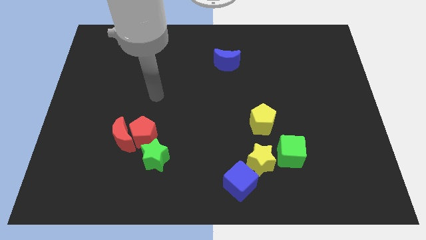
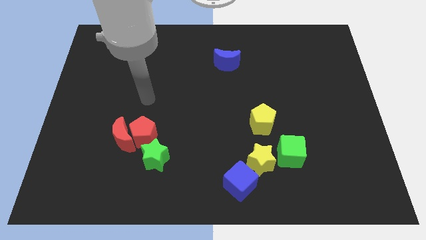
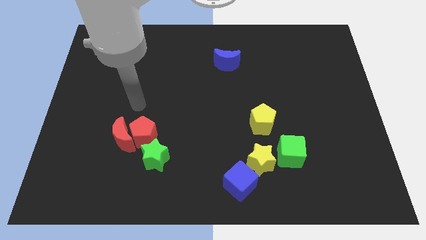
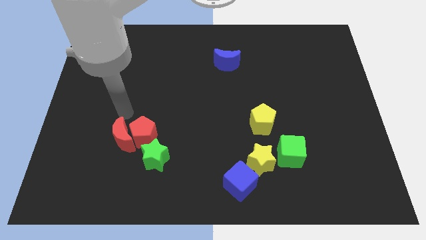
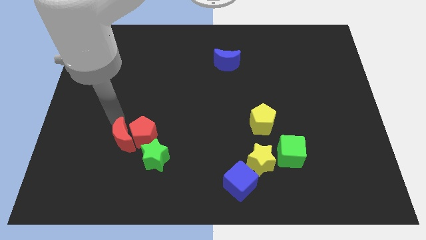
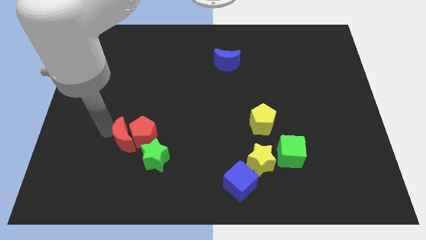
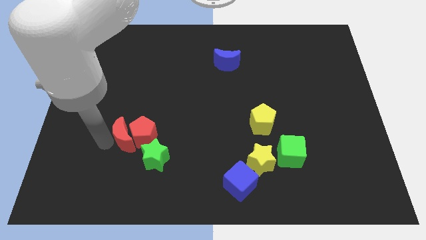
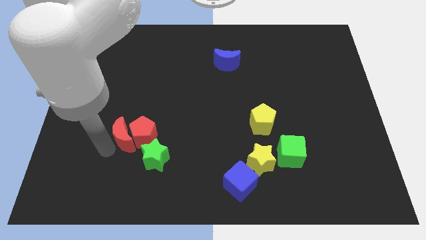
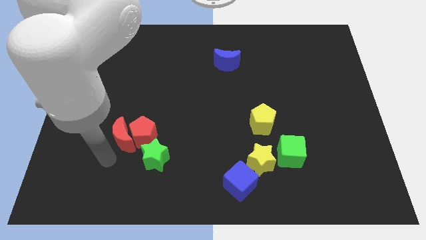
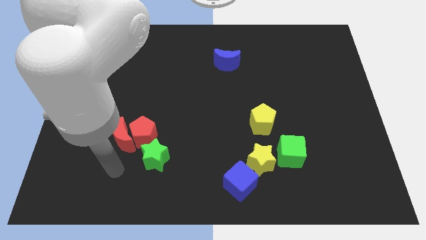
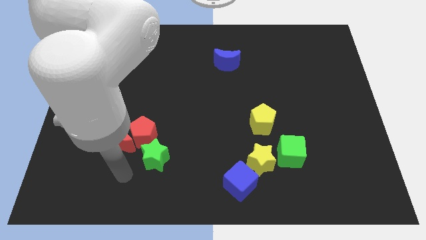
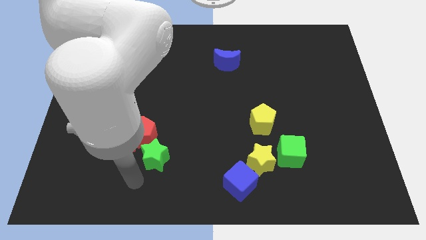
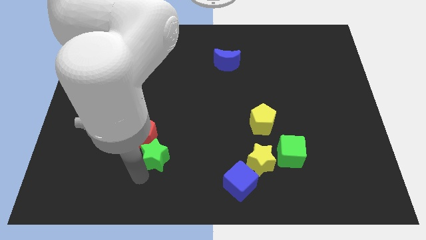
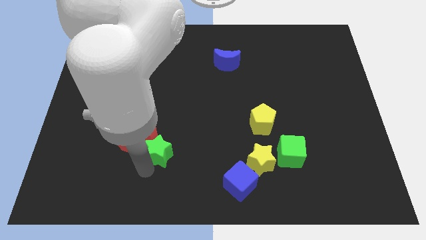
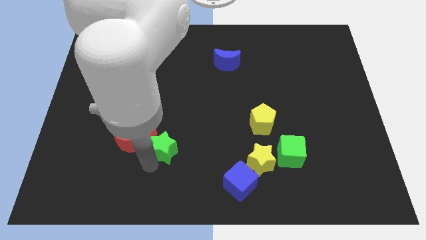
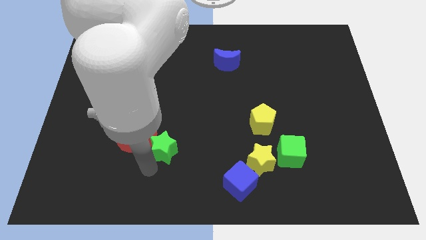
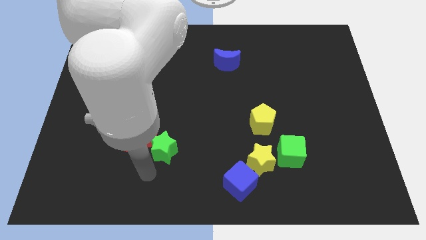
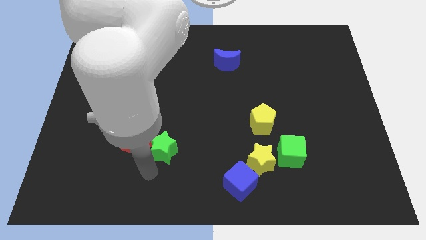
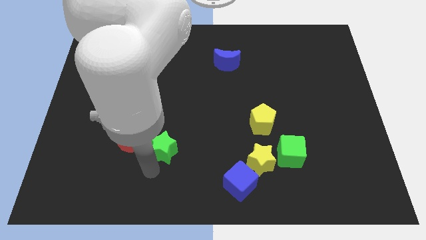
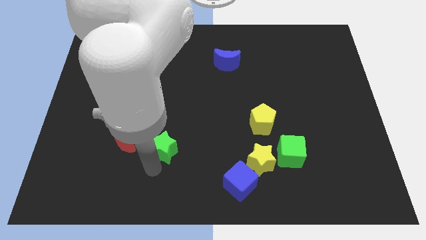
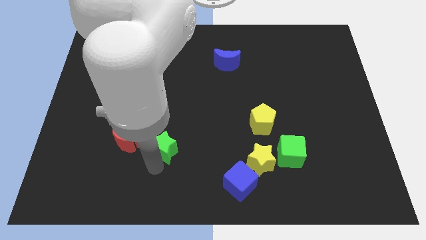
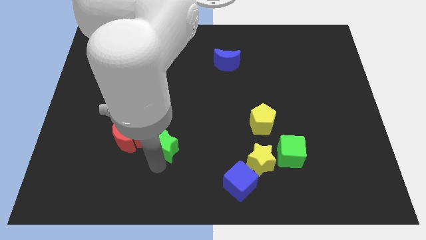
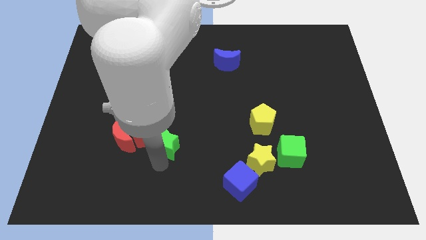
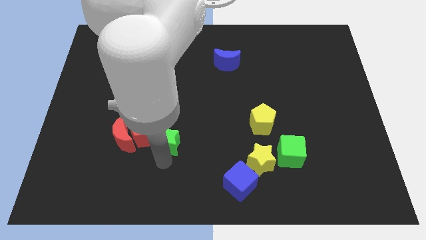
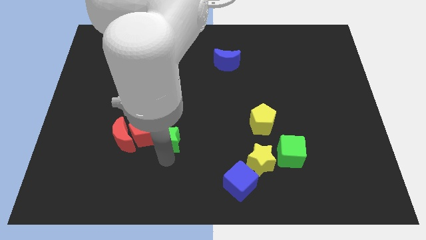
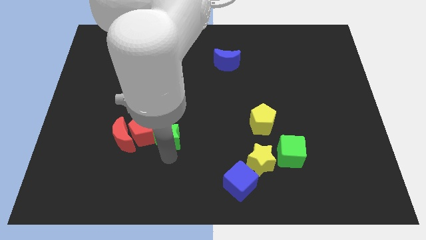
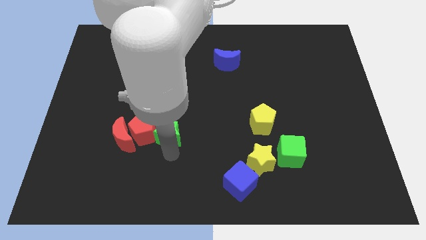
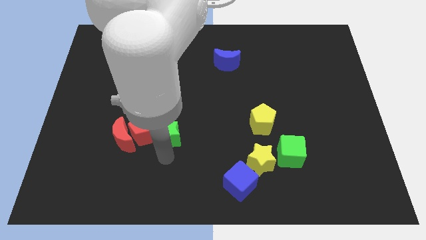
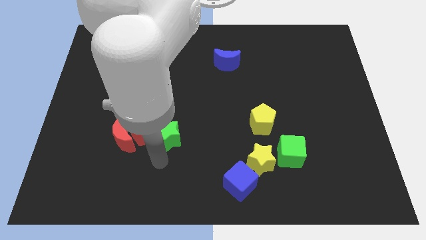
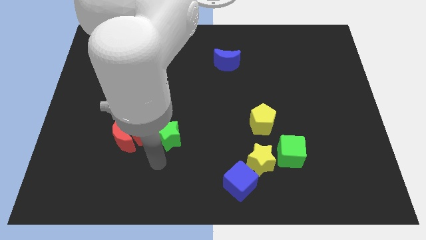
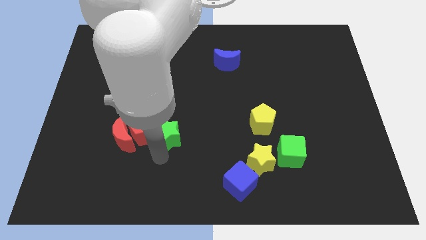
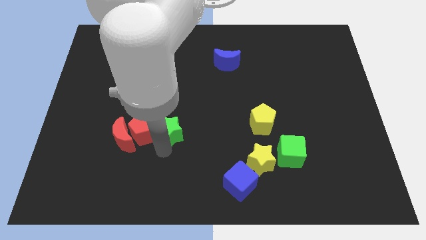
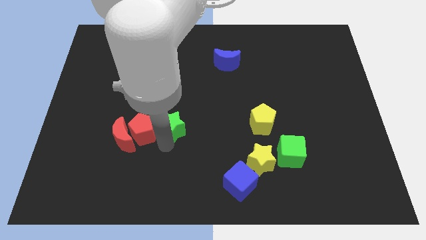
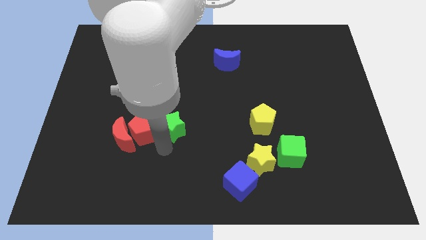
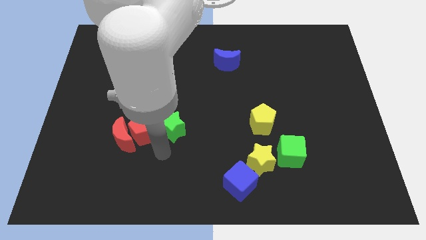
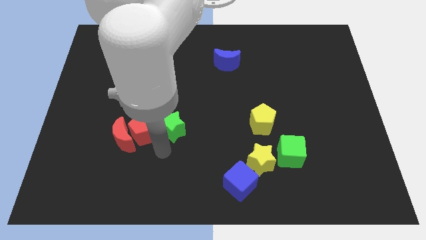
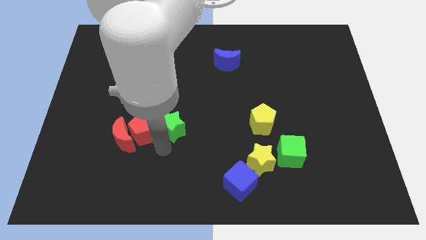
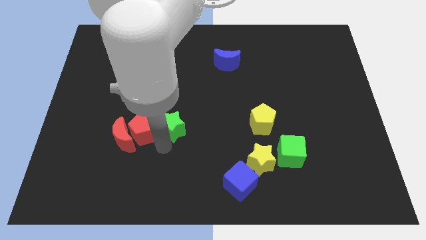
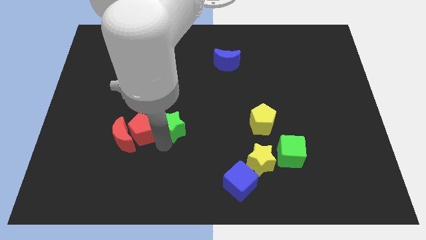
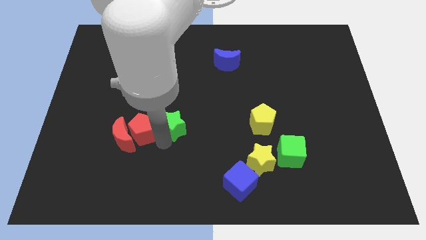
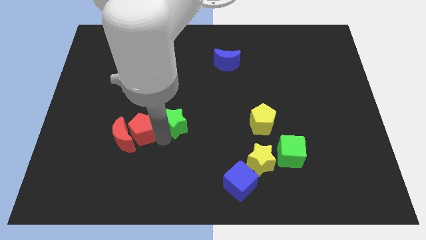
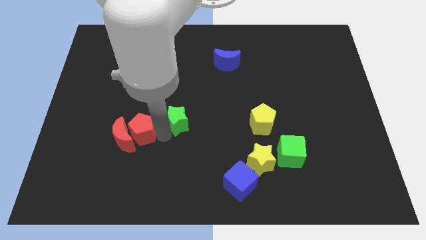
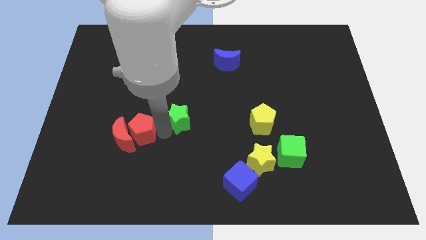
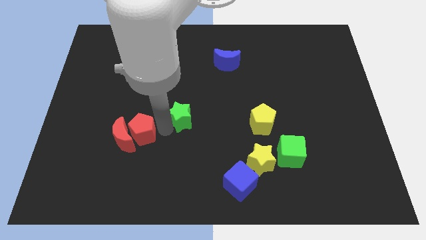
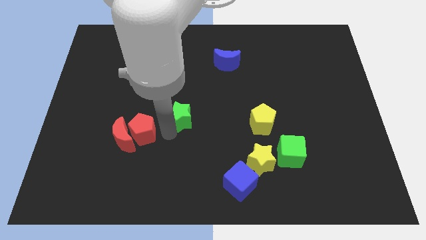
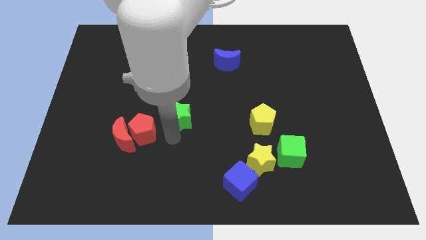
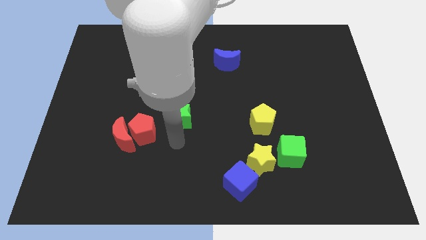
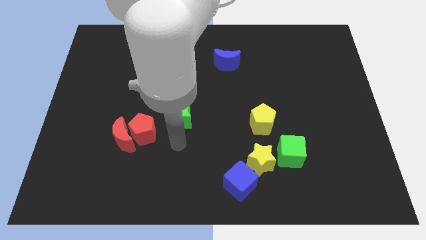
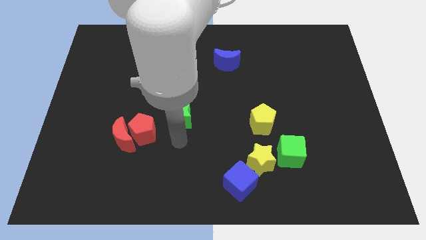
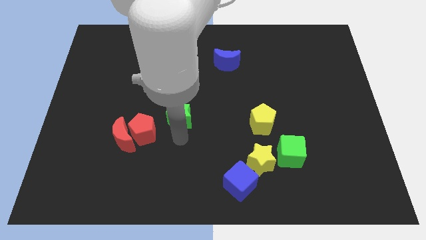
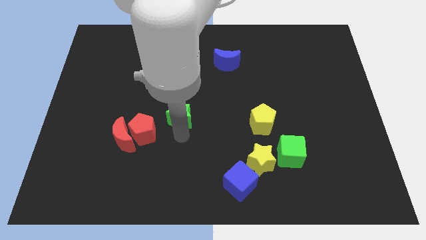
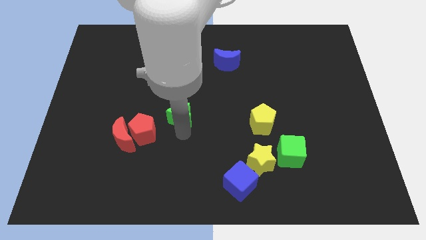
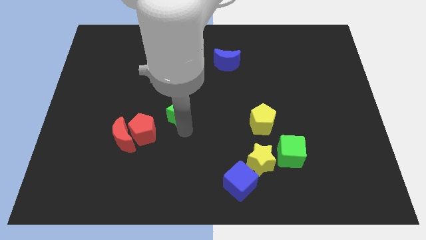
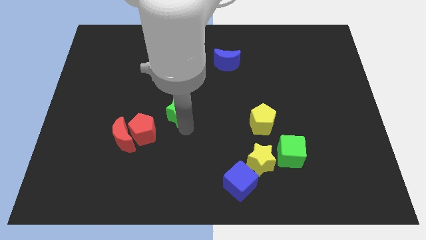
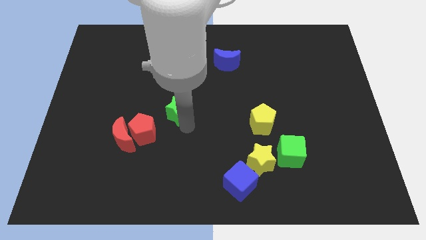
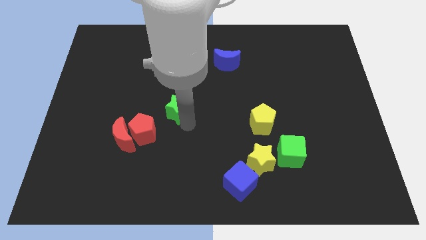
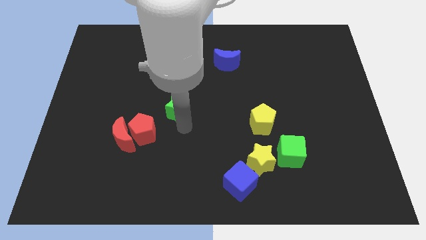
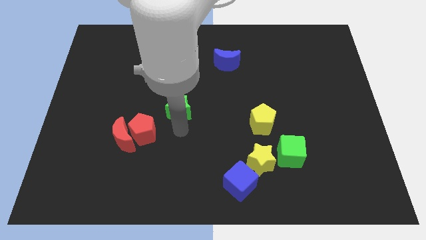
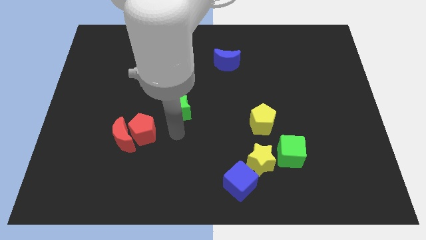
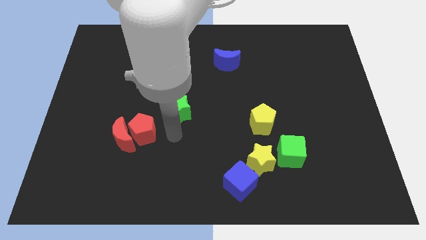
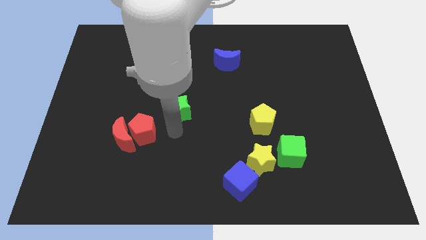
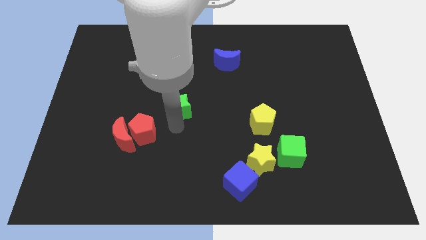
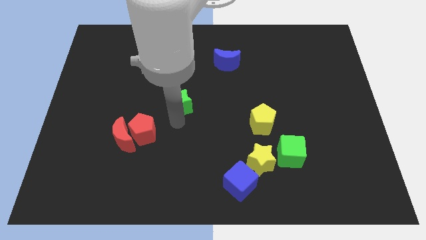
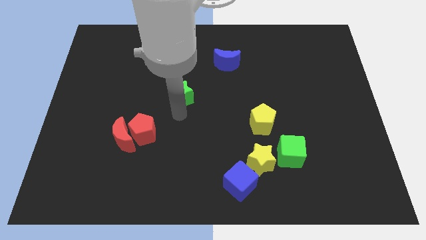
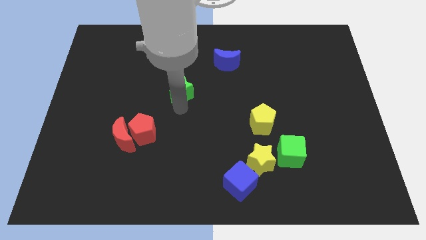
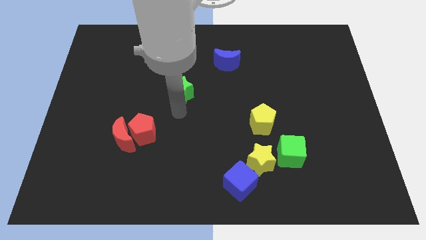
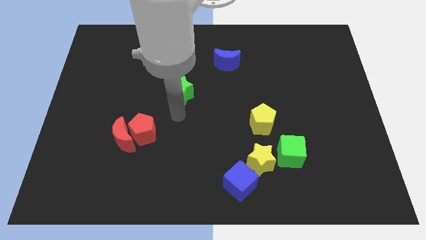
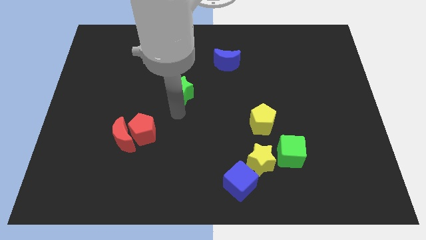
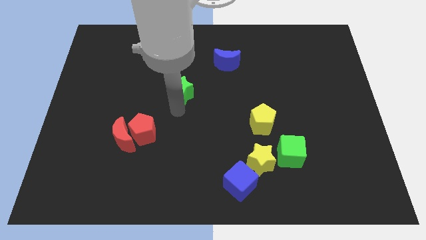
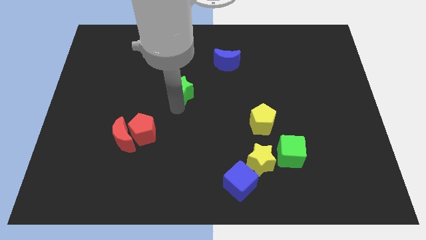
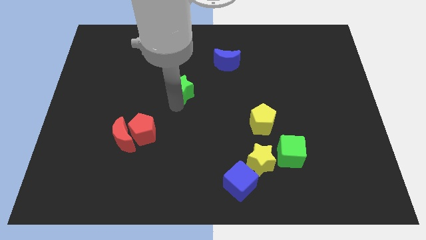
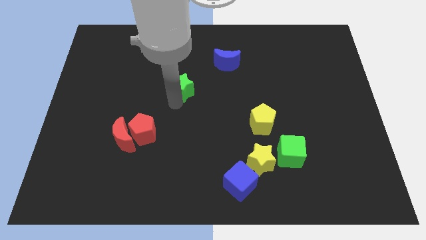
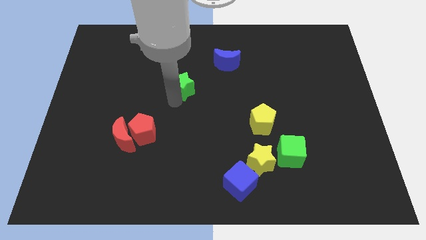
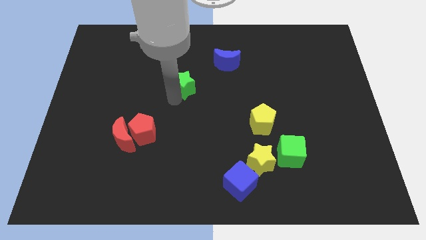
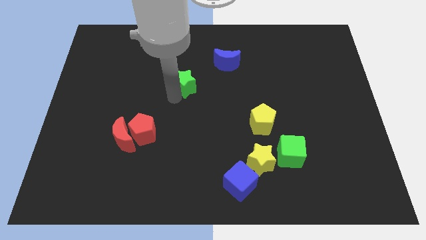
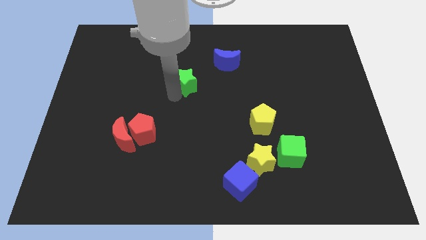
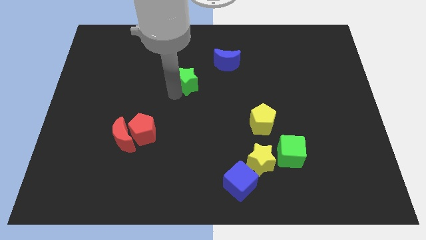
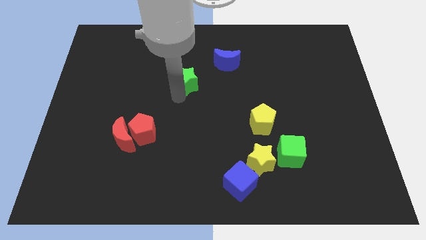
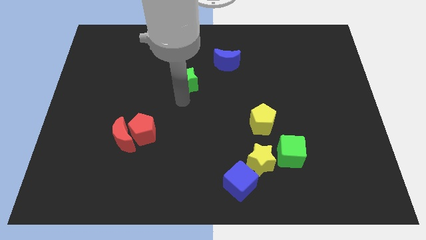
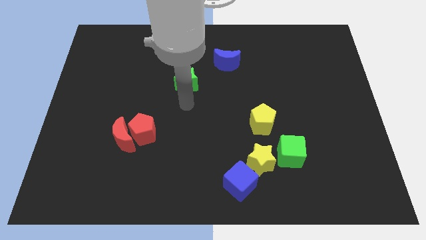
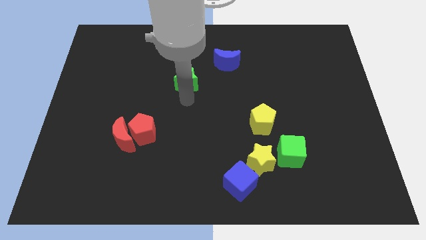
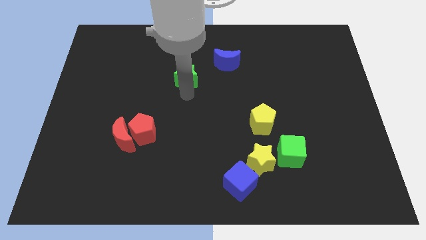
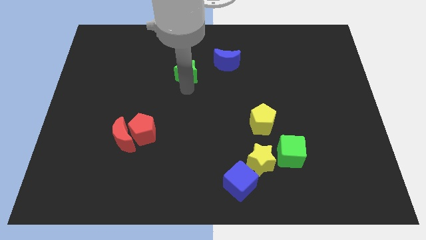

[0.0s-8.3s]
push the green star just left of the blue moon
